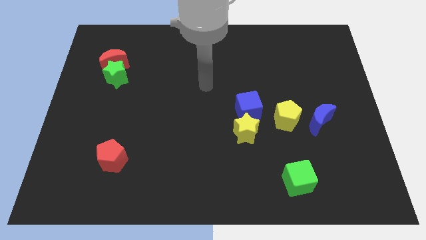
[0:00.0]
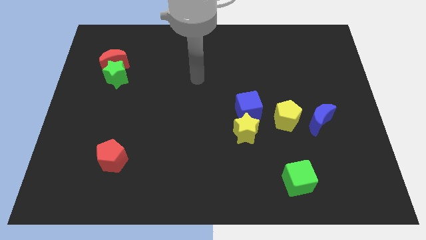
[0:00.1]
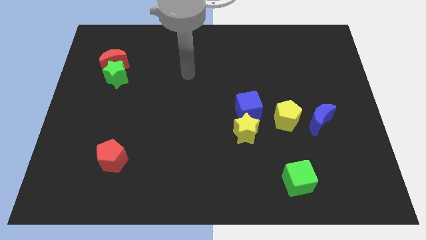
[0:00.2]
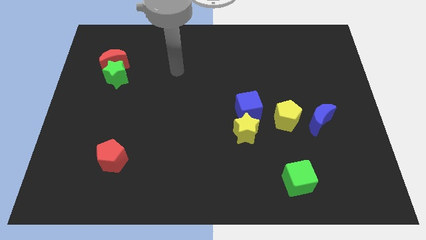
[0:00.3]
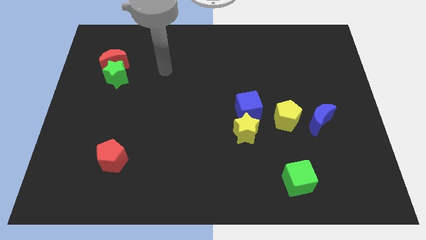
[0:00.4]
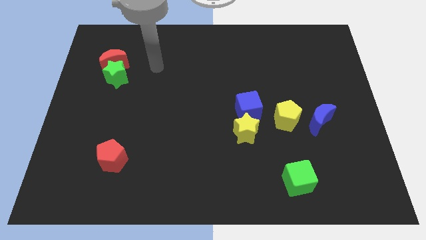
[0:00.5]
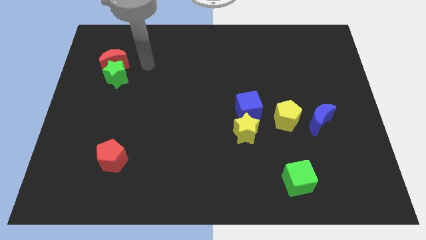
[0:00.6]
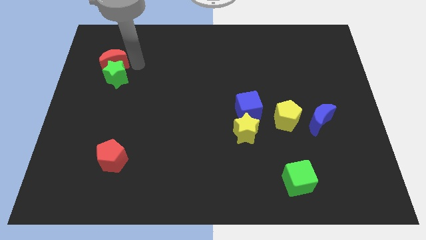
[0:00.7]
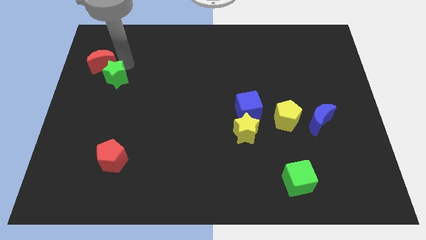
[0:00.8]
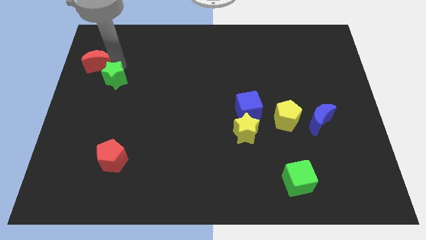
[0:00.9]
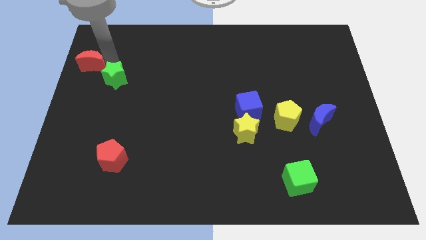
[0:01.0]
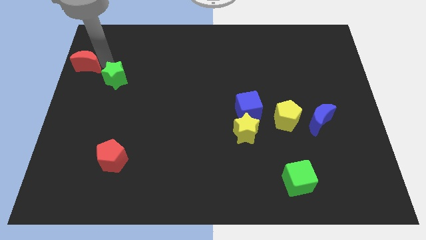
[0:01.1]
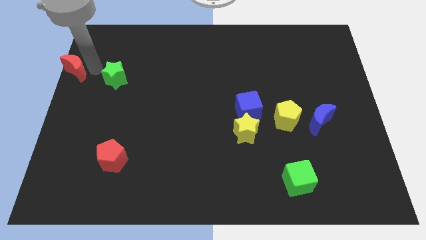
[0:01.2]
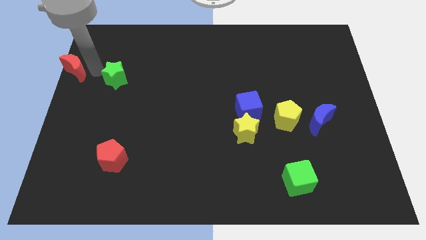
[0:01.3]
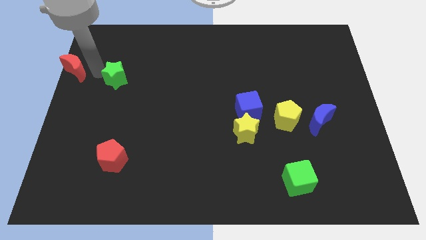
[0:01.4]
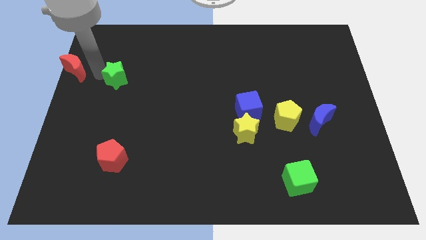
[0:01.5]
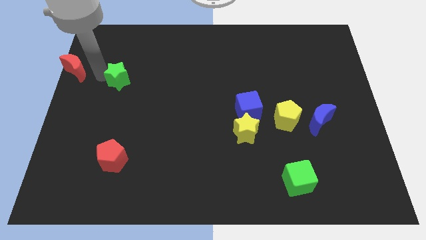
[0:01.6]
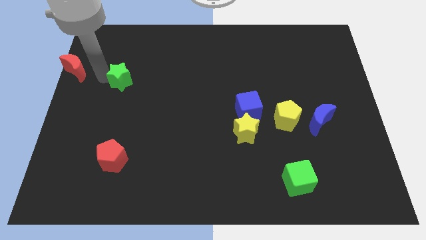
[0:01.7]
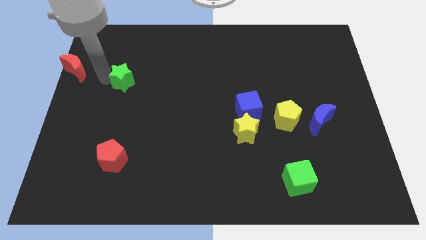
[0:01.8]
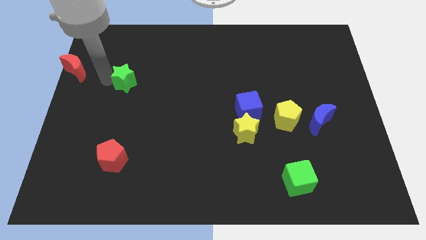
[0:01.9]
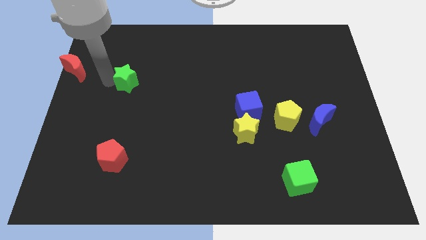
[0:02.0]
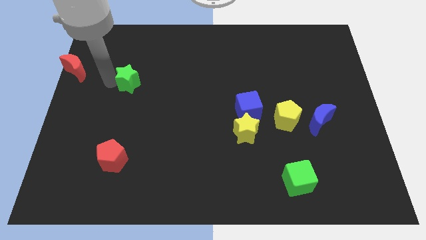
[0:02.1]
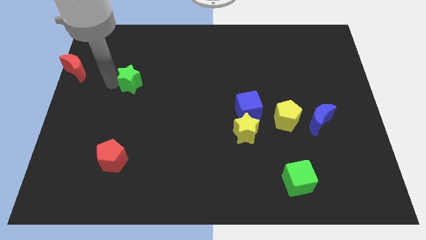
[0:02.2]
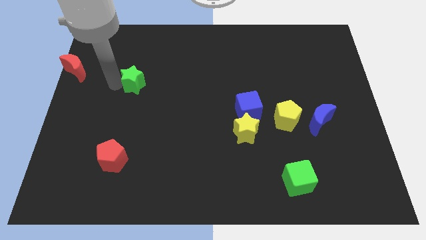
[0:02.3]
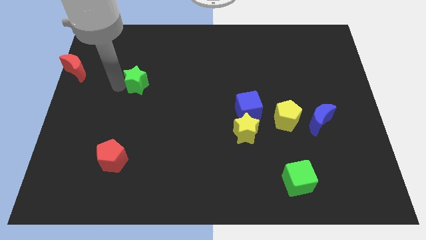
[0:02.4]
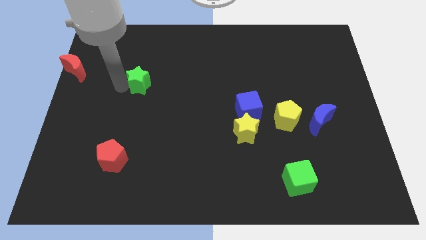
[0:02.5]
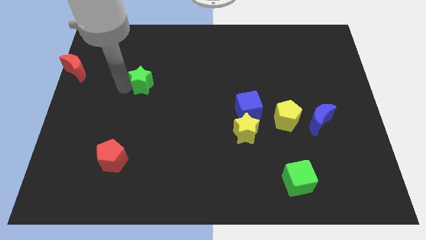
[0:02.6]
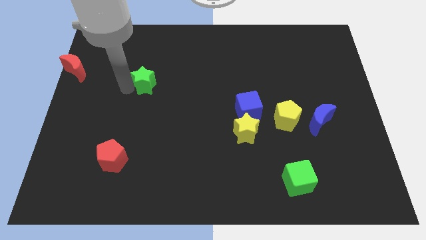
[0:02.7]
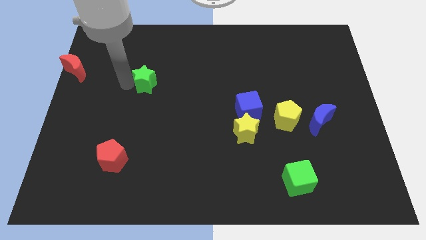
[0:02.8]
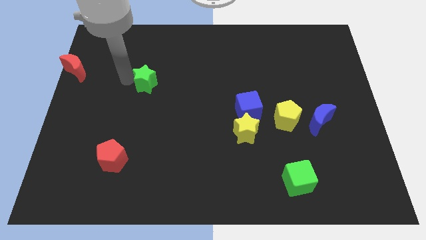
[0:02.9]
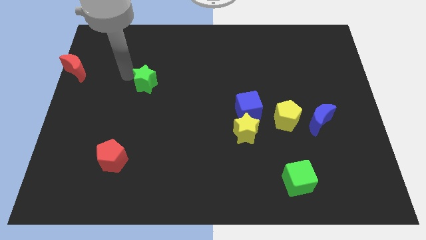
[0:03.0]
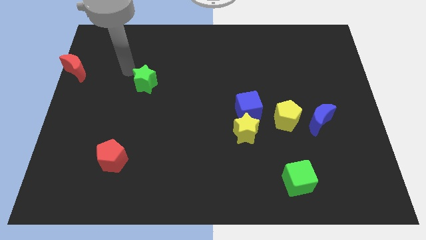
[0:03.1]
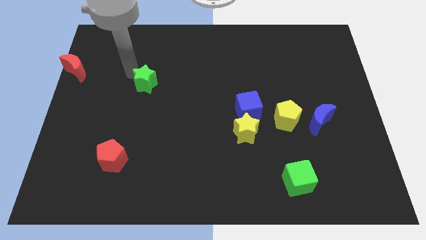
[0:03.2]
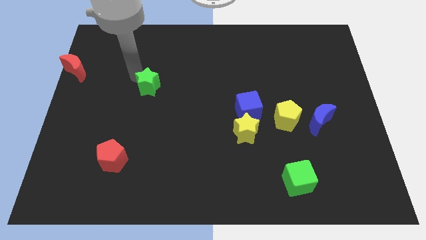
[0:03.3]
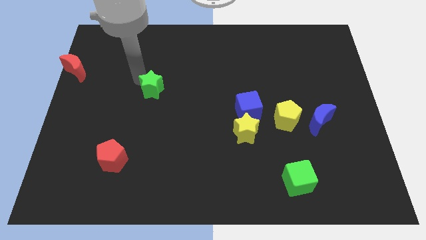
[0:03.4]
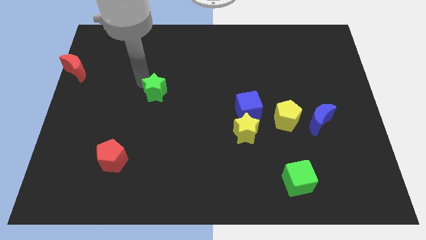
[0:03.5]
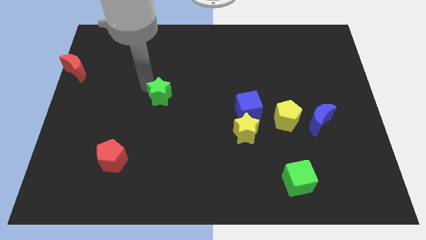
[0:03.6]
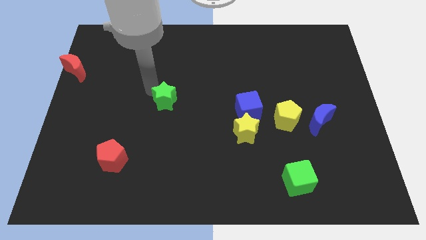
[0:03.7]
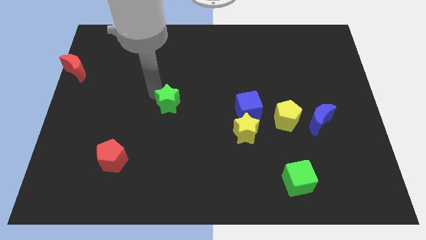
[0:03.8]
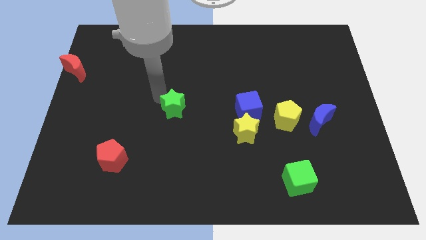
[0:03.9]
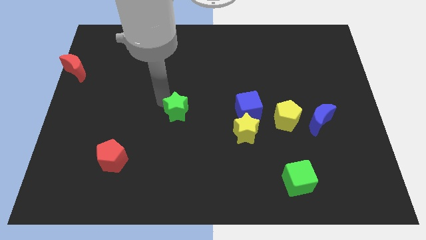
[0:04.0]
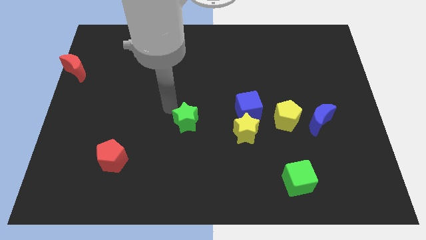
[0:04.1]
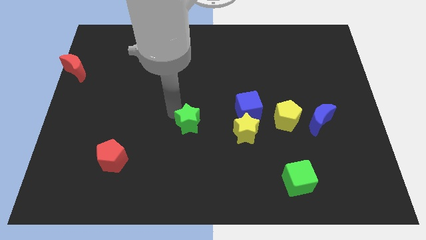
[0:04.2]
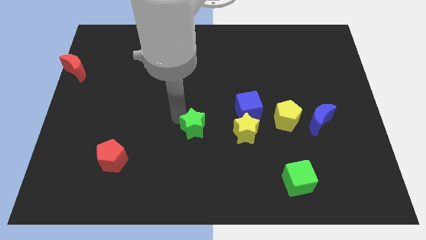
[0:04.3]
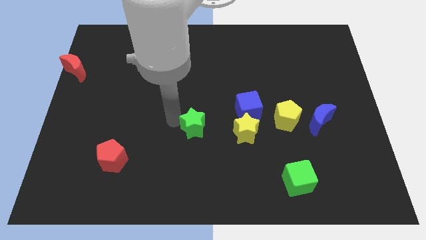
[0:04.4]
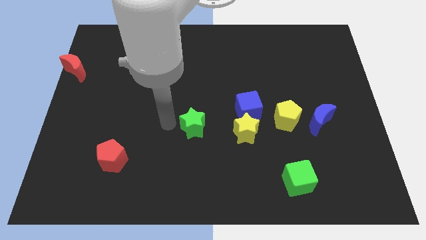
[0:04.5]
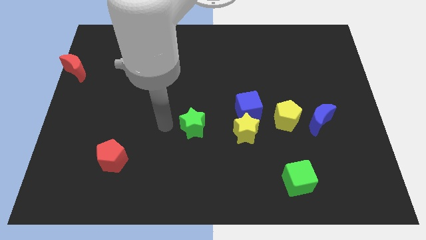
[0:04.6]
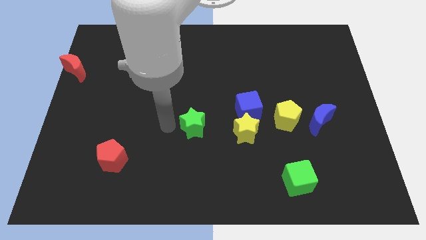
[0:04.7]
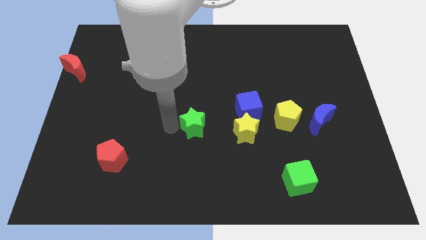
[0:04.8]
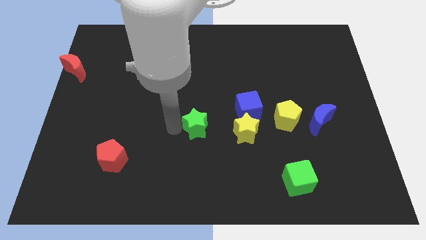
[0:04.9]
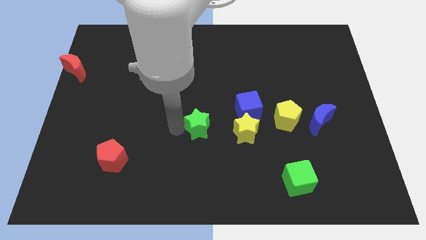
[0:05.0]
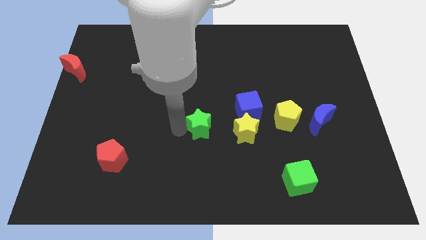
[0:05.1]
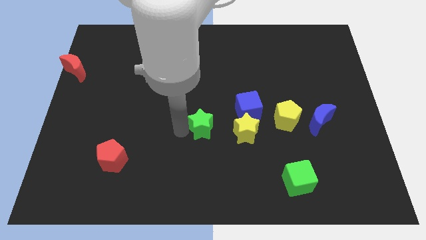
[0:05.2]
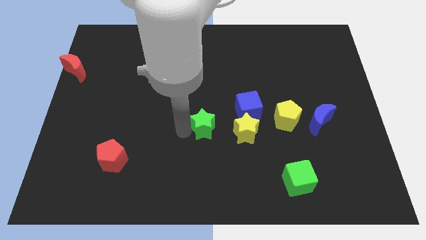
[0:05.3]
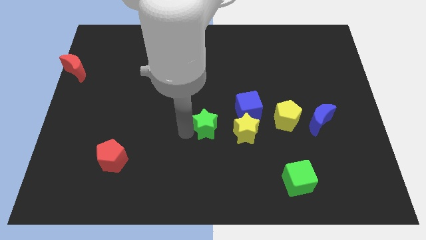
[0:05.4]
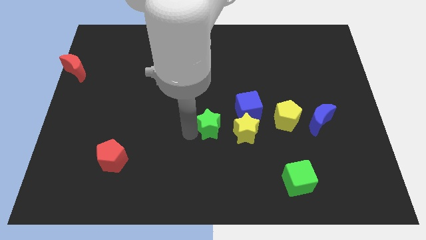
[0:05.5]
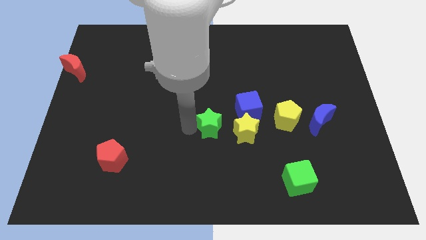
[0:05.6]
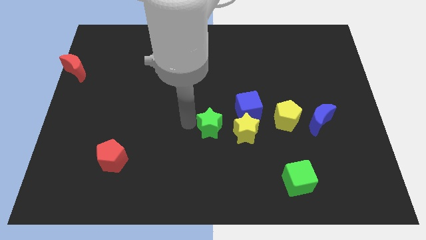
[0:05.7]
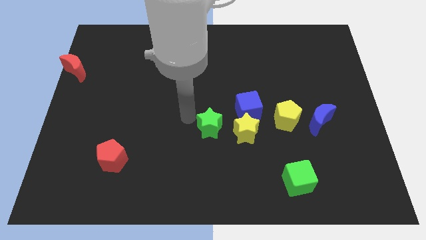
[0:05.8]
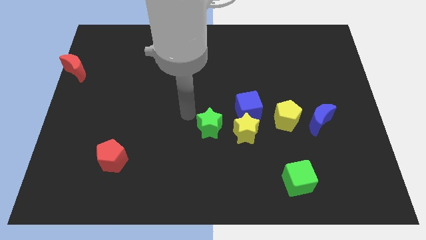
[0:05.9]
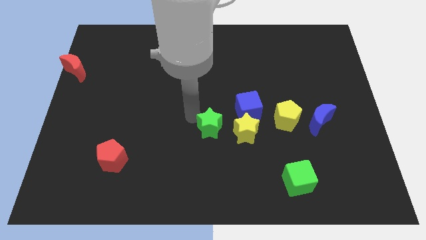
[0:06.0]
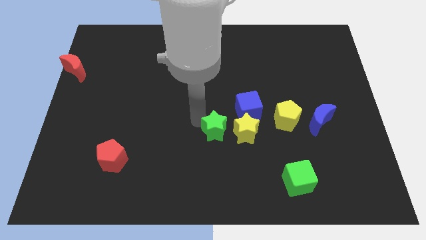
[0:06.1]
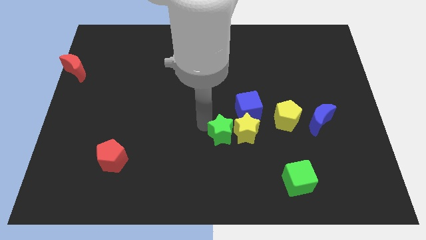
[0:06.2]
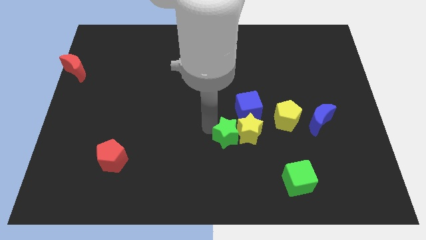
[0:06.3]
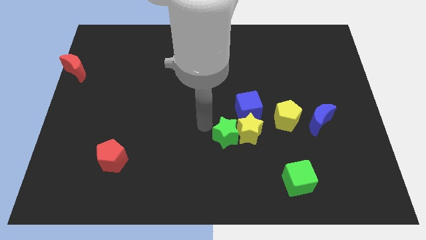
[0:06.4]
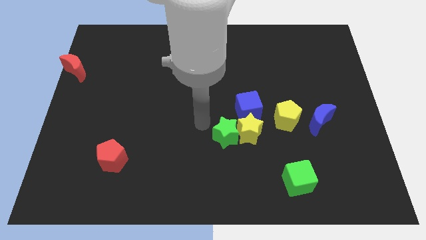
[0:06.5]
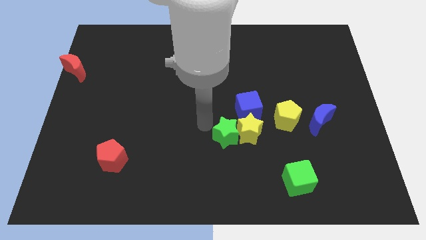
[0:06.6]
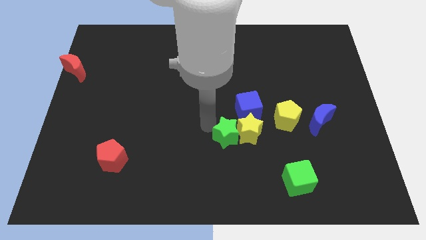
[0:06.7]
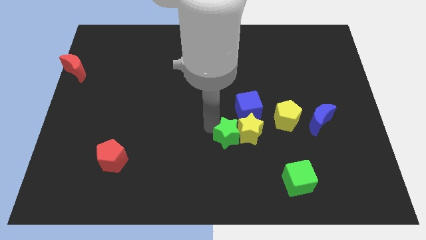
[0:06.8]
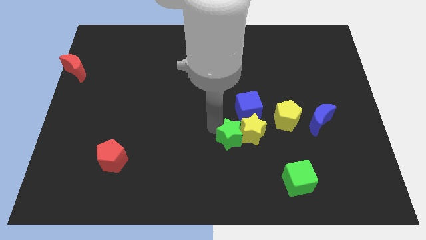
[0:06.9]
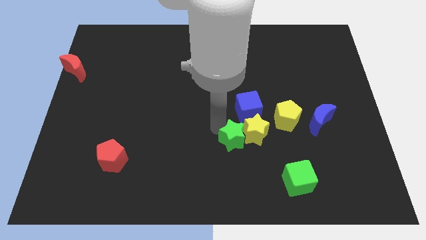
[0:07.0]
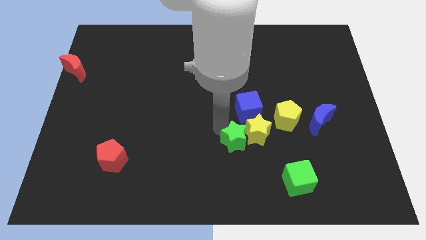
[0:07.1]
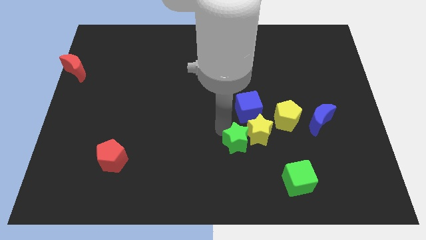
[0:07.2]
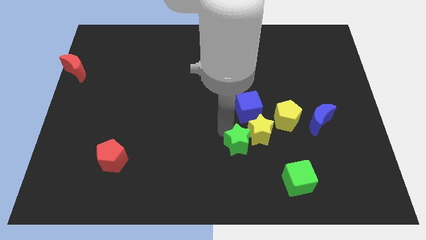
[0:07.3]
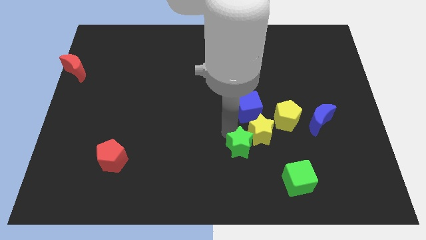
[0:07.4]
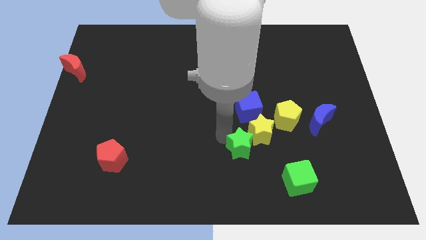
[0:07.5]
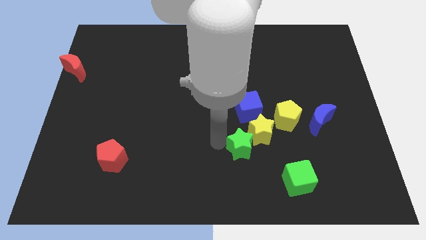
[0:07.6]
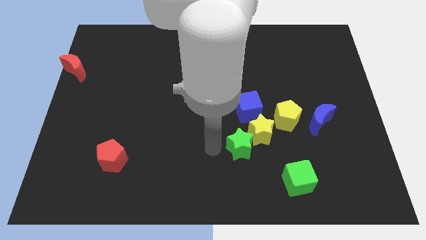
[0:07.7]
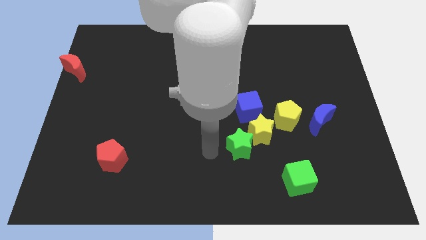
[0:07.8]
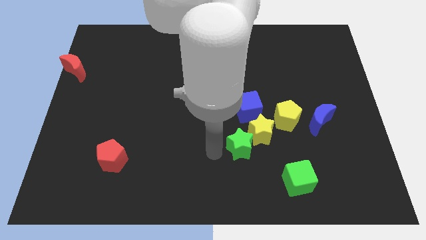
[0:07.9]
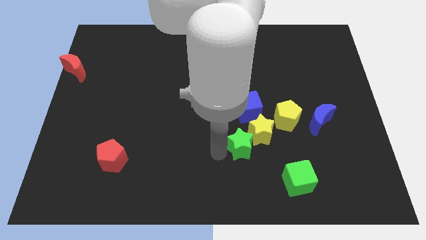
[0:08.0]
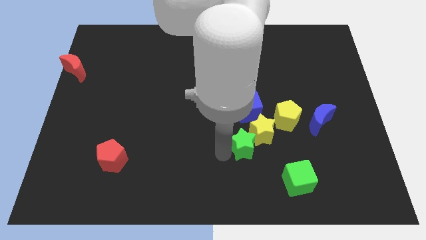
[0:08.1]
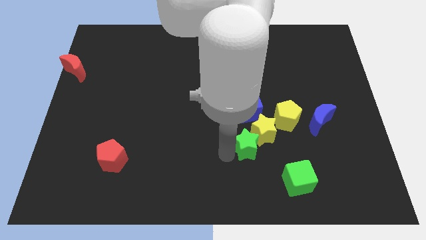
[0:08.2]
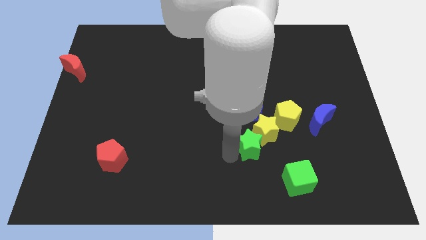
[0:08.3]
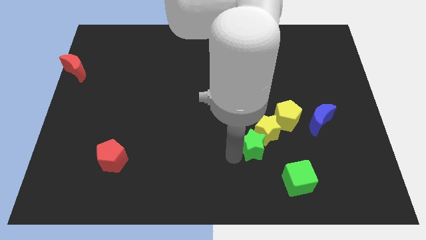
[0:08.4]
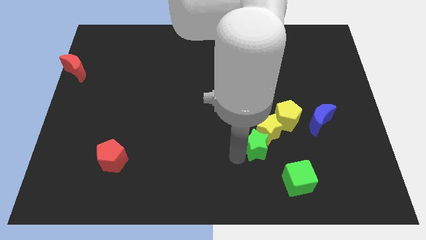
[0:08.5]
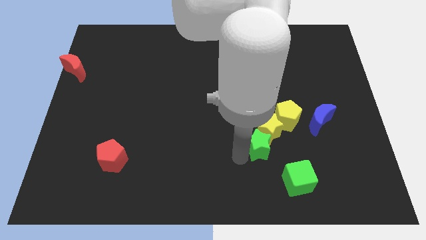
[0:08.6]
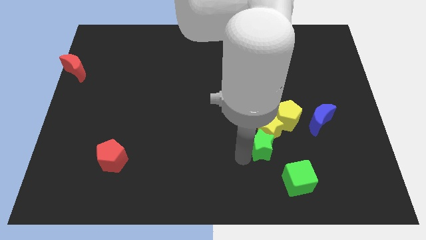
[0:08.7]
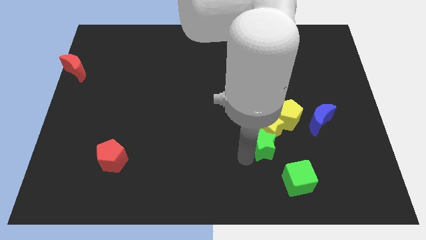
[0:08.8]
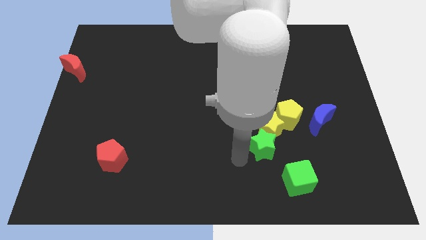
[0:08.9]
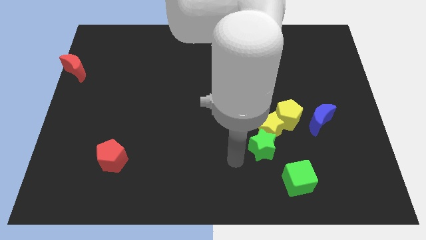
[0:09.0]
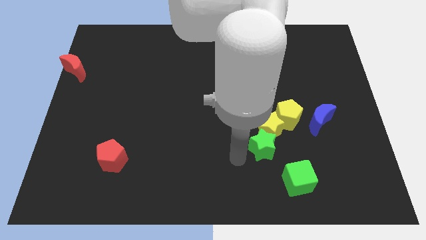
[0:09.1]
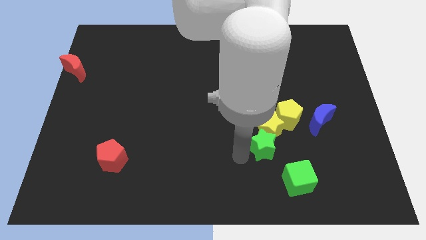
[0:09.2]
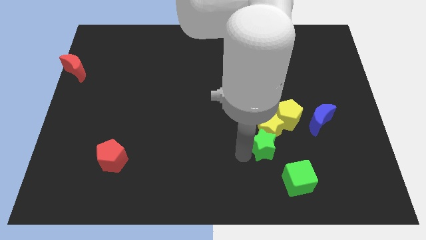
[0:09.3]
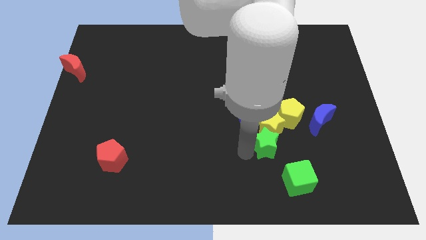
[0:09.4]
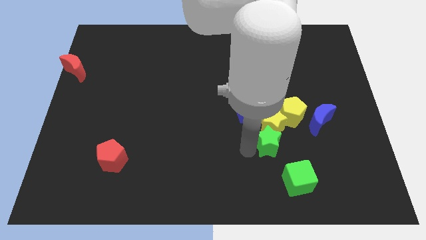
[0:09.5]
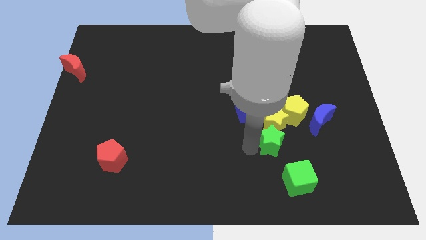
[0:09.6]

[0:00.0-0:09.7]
slide the green star above the green cube
